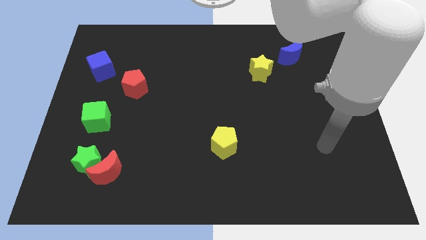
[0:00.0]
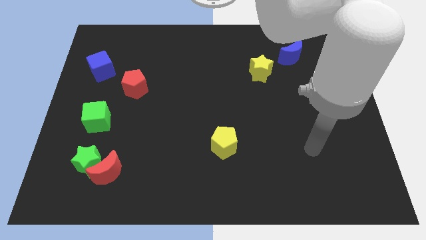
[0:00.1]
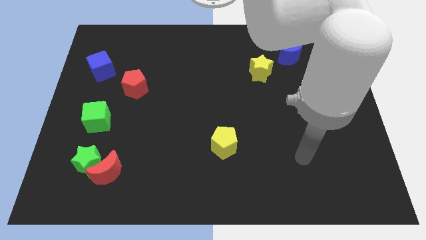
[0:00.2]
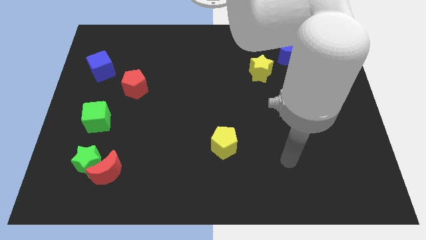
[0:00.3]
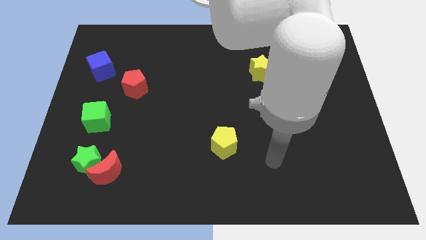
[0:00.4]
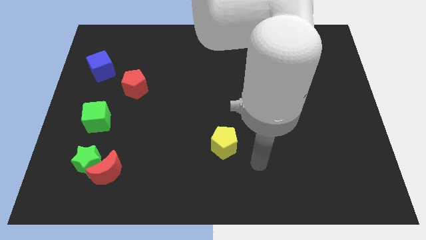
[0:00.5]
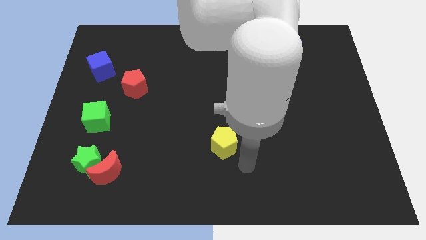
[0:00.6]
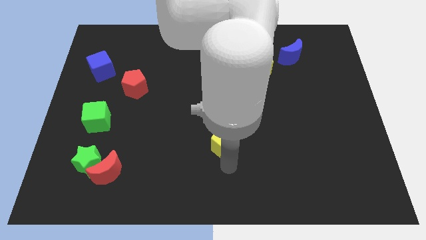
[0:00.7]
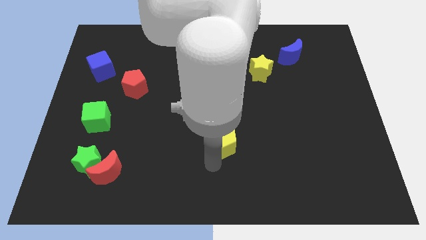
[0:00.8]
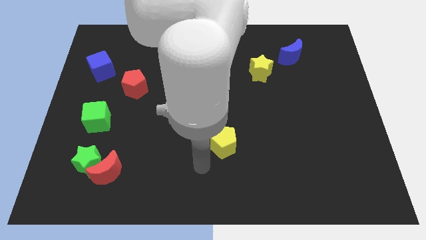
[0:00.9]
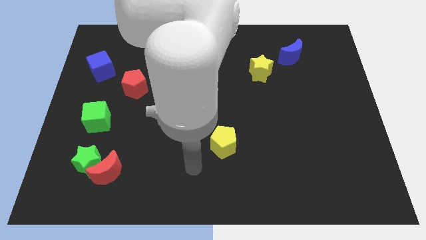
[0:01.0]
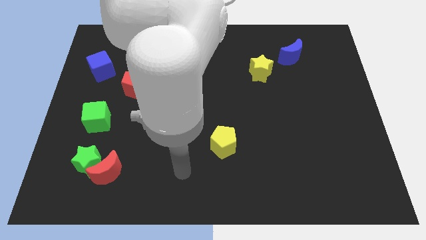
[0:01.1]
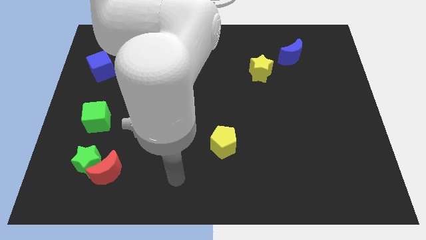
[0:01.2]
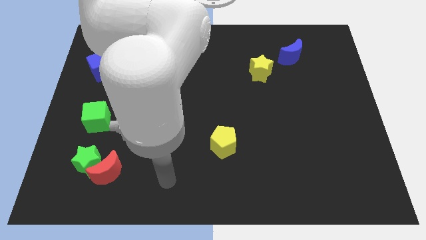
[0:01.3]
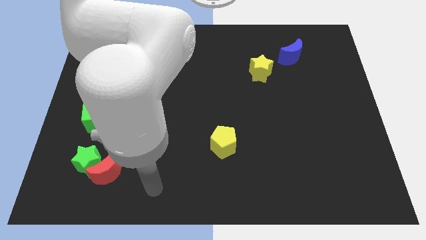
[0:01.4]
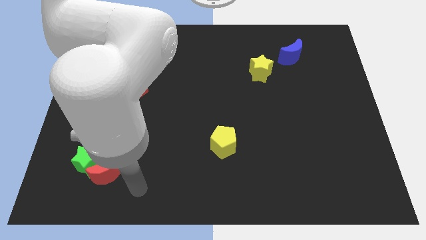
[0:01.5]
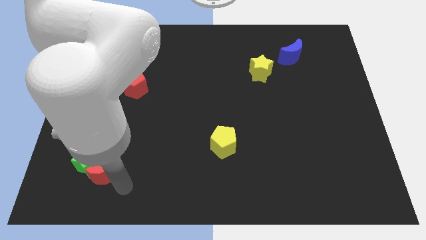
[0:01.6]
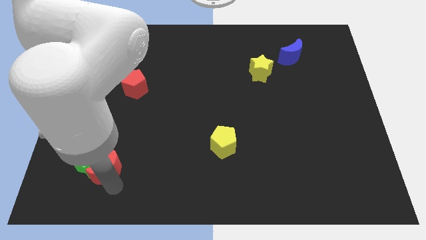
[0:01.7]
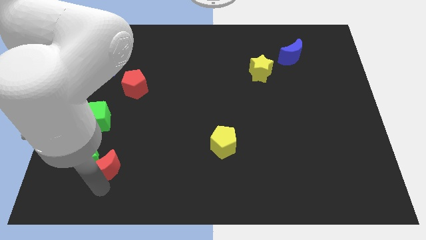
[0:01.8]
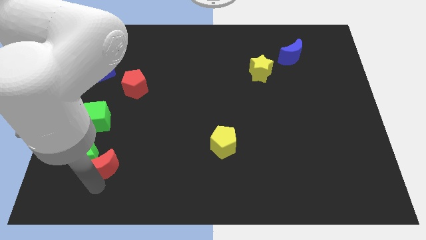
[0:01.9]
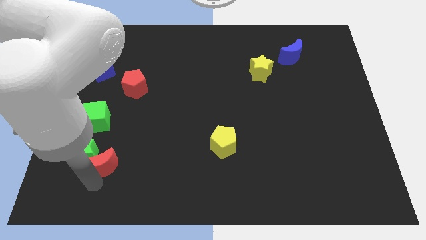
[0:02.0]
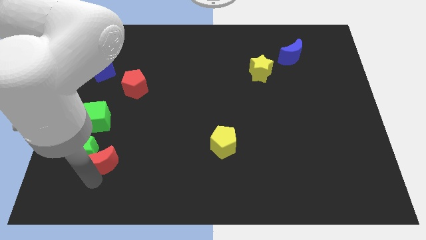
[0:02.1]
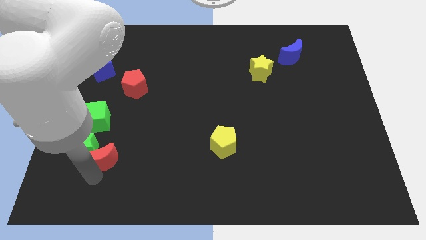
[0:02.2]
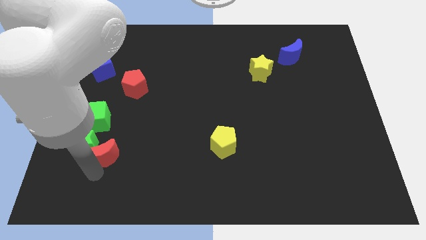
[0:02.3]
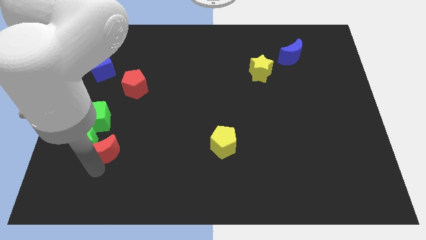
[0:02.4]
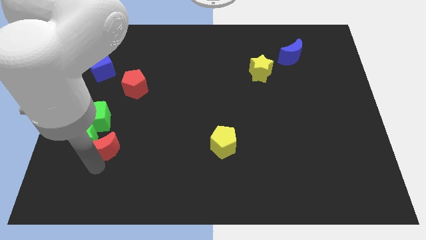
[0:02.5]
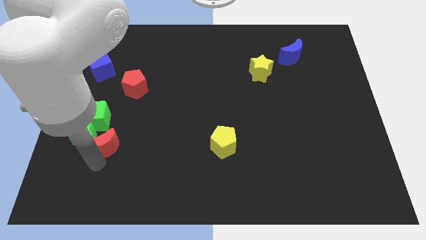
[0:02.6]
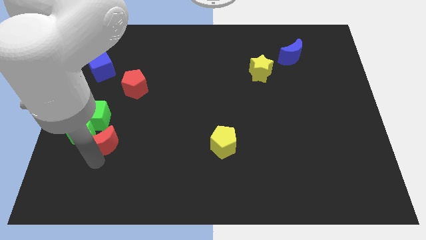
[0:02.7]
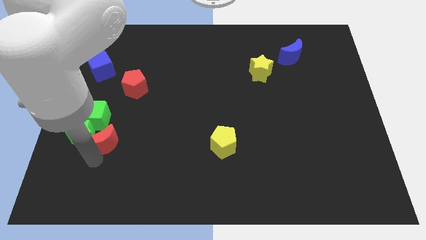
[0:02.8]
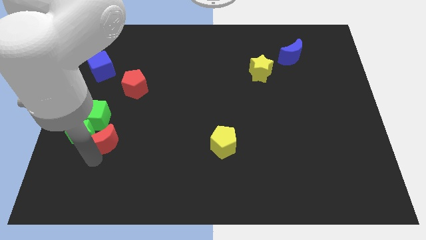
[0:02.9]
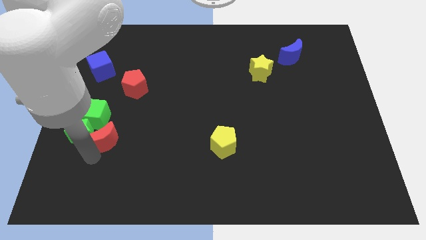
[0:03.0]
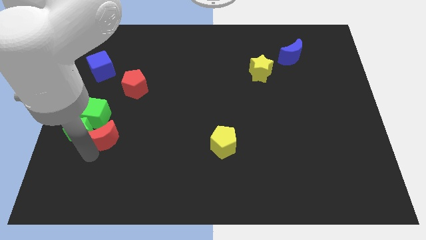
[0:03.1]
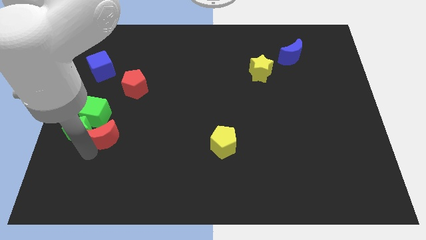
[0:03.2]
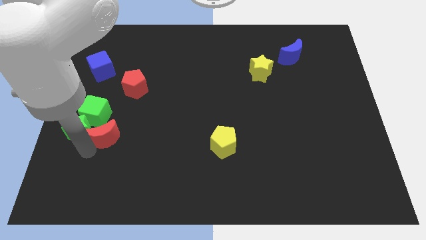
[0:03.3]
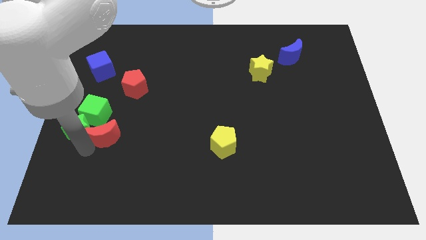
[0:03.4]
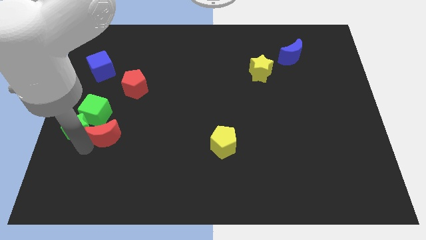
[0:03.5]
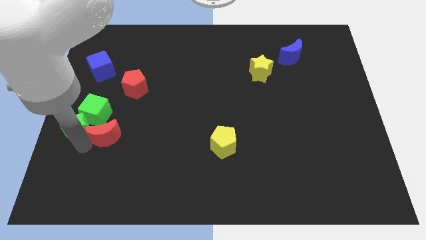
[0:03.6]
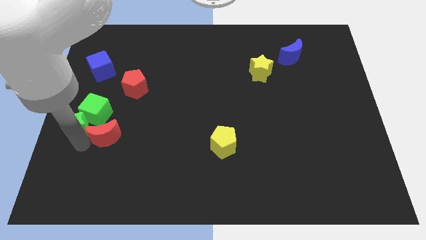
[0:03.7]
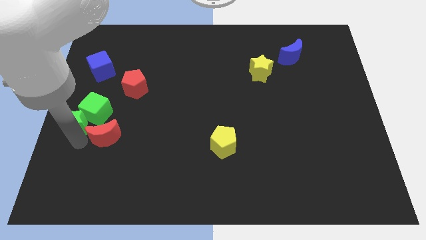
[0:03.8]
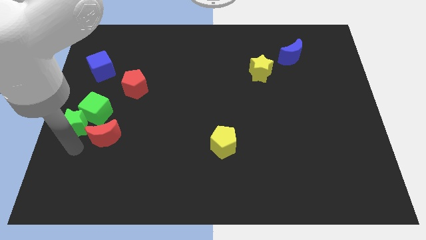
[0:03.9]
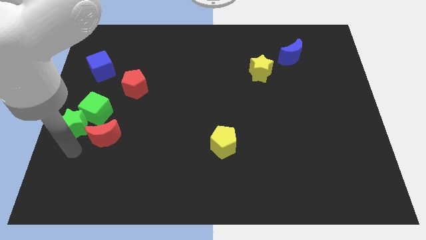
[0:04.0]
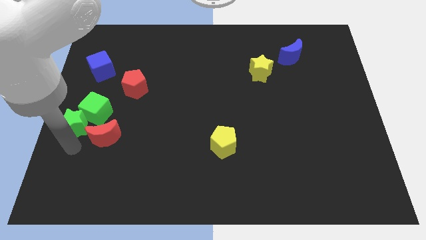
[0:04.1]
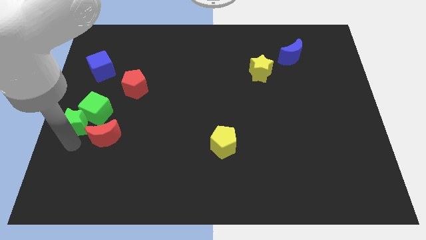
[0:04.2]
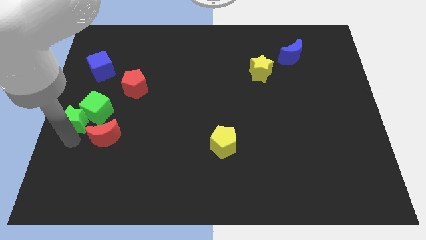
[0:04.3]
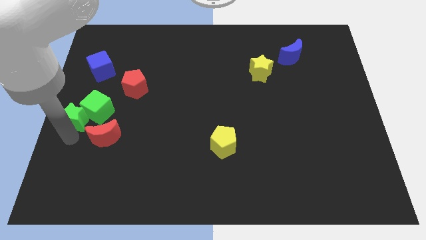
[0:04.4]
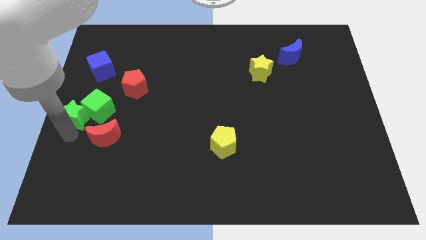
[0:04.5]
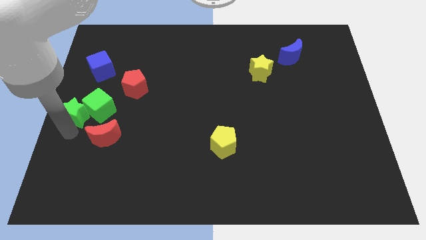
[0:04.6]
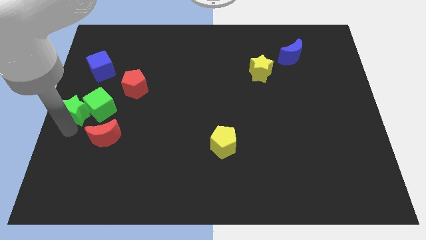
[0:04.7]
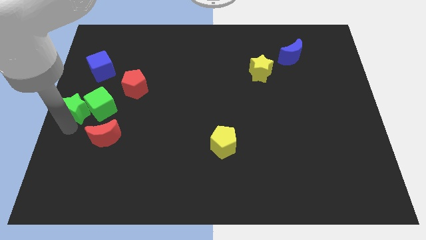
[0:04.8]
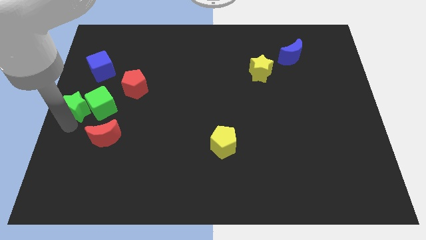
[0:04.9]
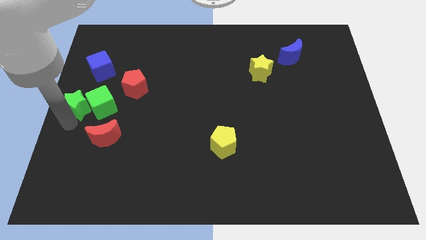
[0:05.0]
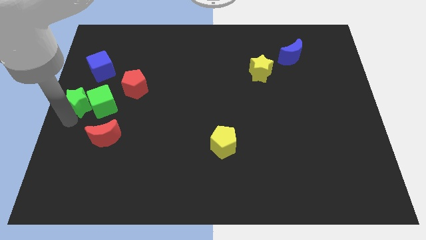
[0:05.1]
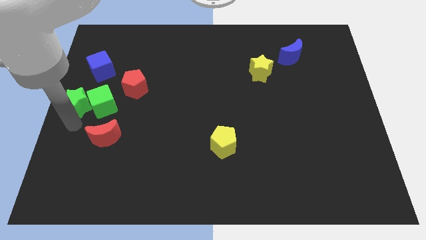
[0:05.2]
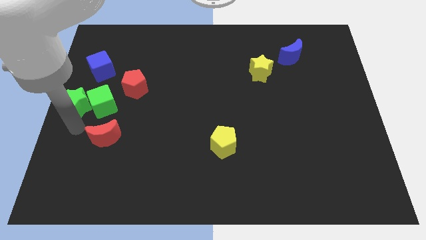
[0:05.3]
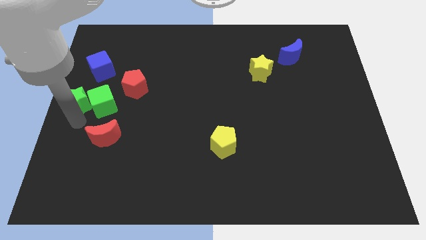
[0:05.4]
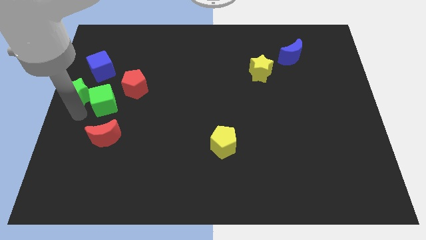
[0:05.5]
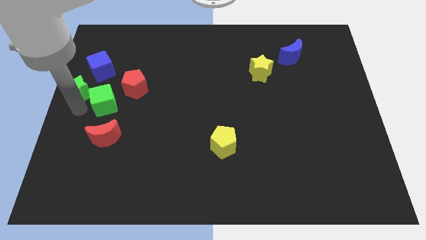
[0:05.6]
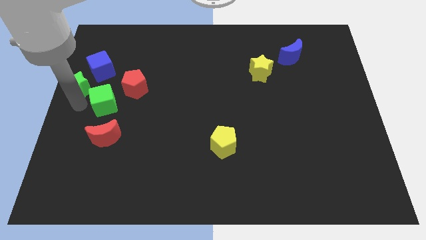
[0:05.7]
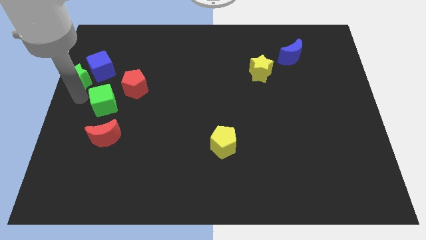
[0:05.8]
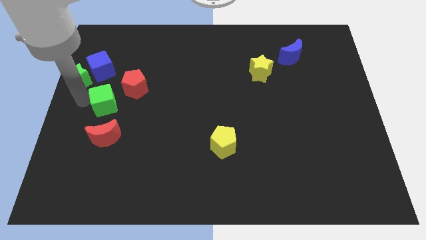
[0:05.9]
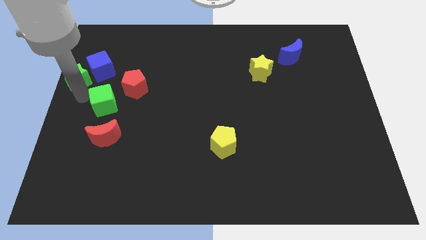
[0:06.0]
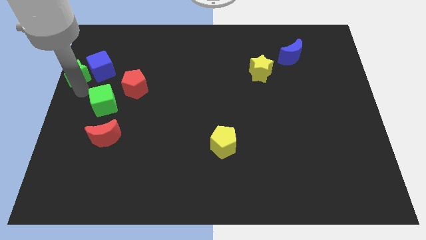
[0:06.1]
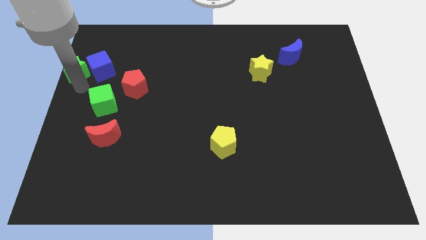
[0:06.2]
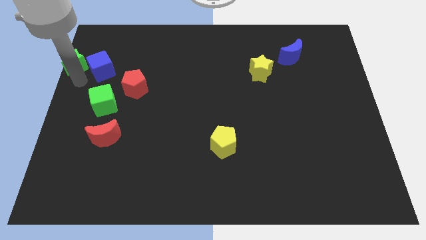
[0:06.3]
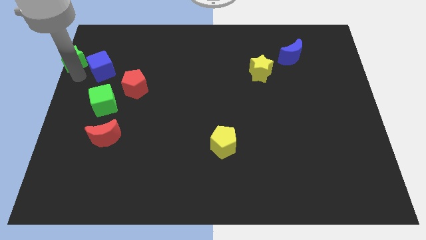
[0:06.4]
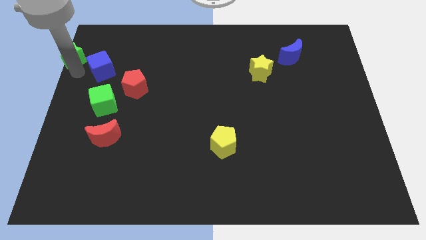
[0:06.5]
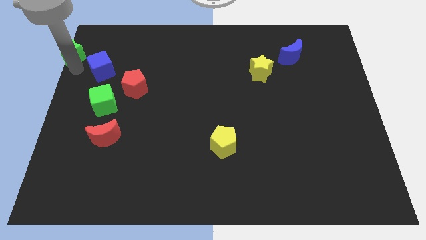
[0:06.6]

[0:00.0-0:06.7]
slide the green star to the top left
